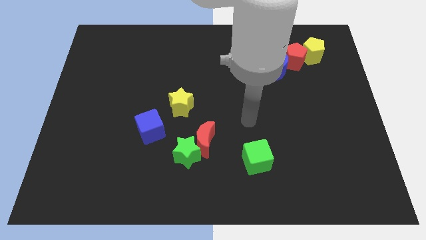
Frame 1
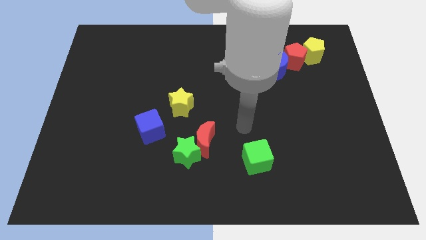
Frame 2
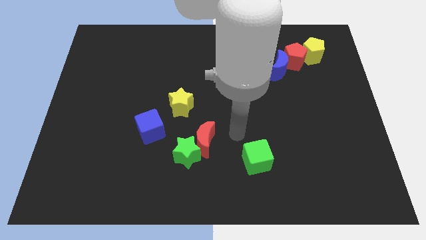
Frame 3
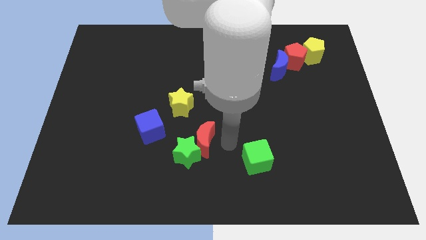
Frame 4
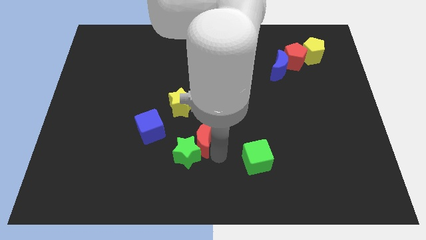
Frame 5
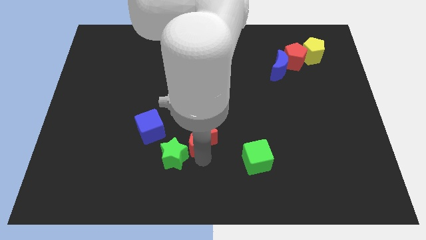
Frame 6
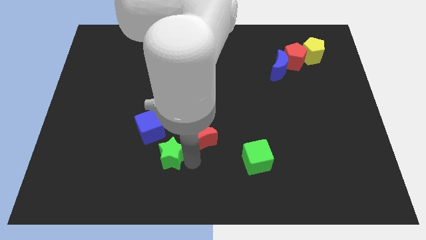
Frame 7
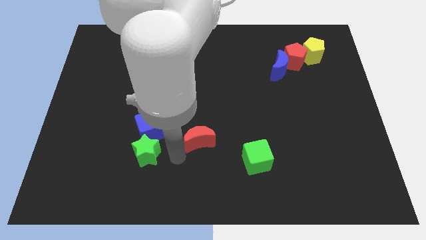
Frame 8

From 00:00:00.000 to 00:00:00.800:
separate the red moon from the green star

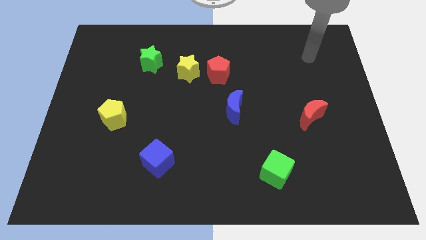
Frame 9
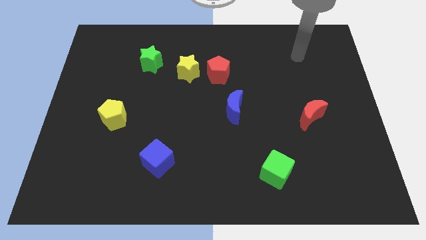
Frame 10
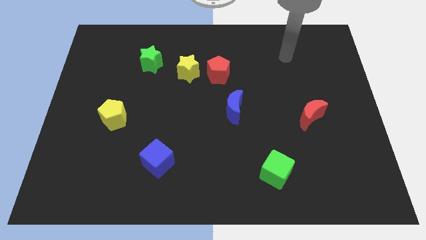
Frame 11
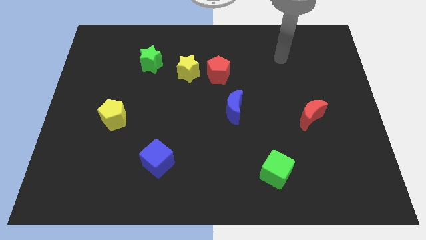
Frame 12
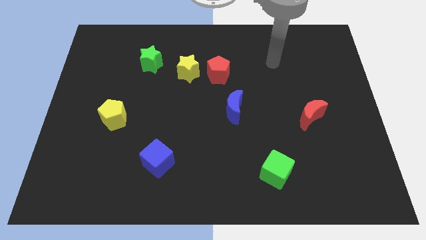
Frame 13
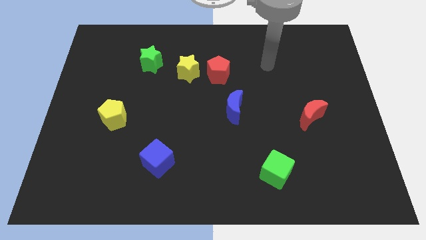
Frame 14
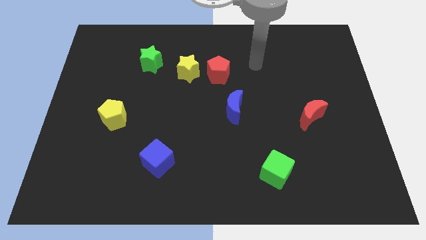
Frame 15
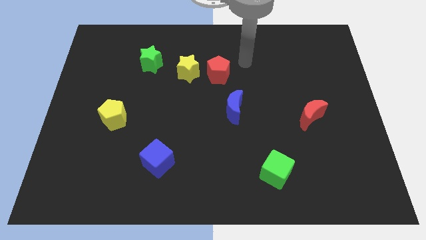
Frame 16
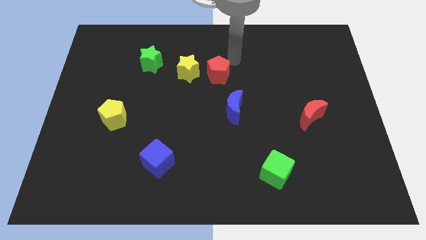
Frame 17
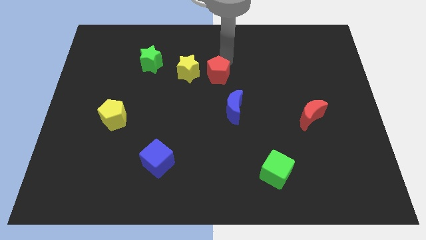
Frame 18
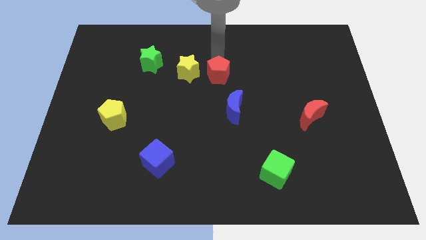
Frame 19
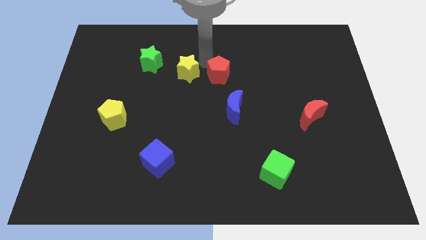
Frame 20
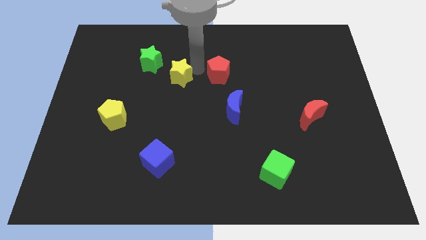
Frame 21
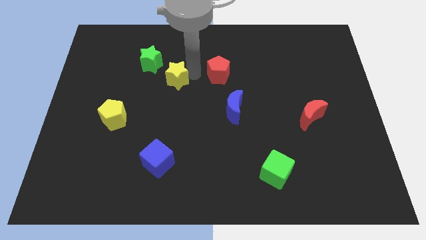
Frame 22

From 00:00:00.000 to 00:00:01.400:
pull the red pentagon apart from the yellow star

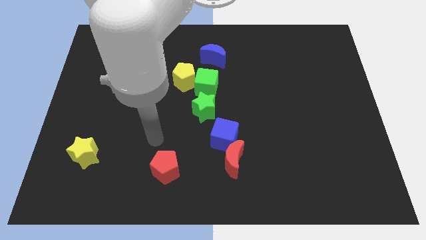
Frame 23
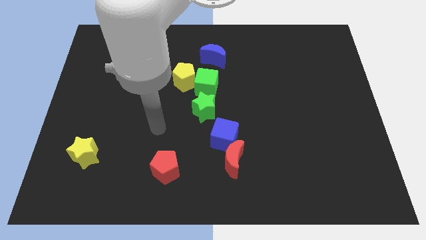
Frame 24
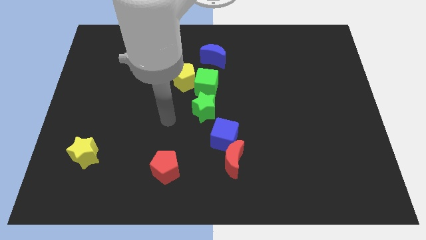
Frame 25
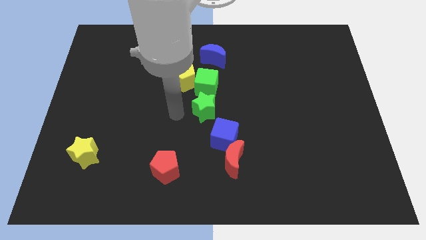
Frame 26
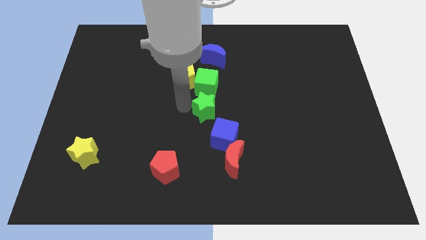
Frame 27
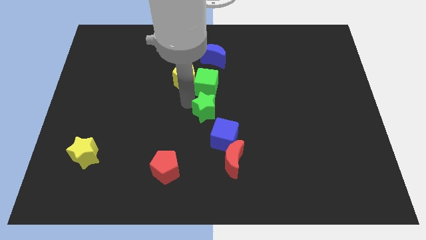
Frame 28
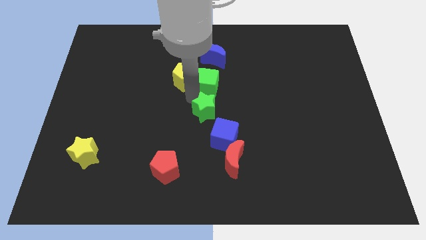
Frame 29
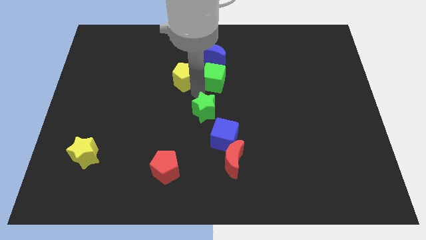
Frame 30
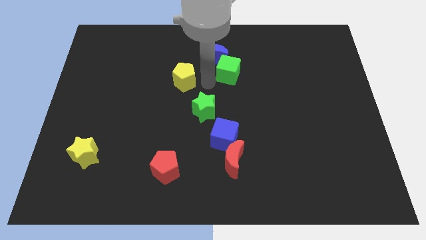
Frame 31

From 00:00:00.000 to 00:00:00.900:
pull the yellow pentagon apart from the green cube

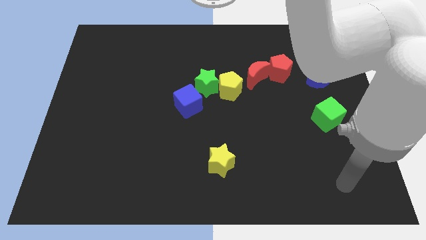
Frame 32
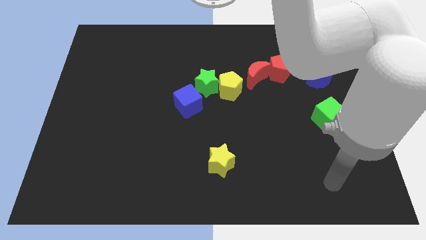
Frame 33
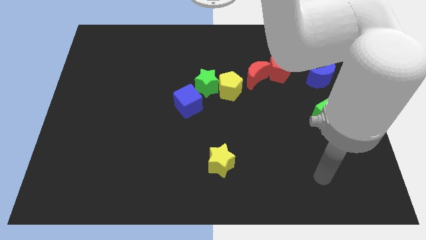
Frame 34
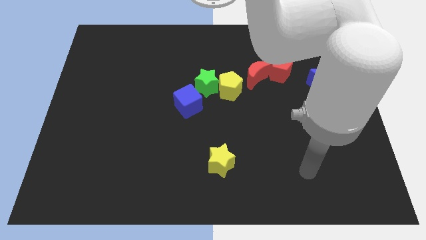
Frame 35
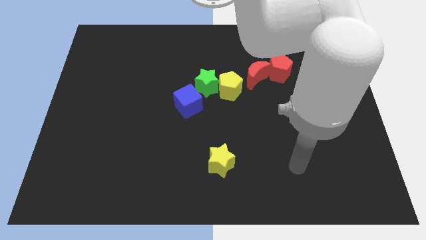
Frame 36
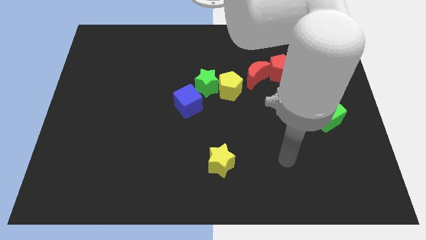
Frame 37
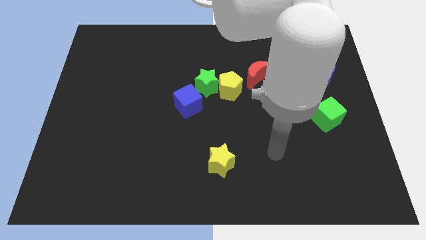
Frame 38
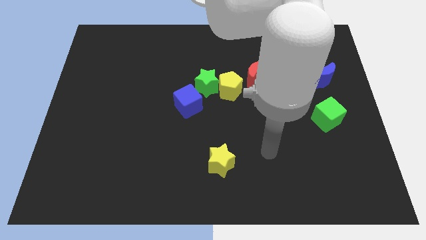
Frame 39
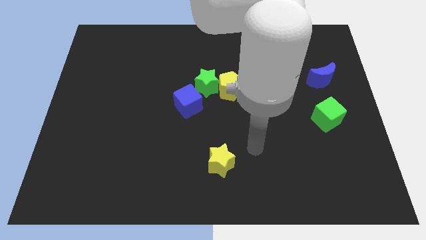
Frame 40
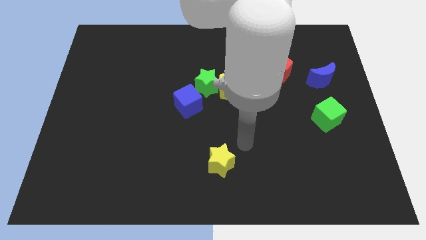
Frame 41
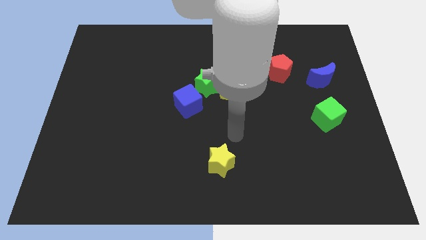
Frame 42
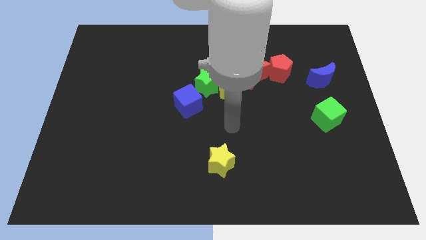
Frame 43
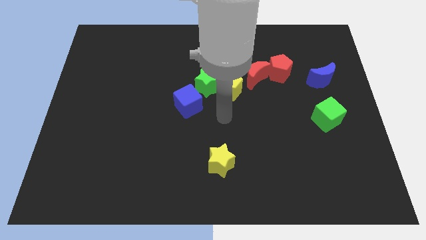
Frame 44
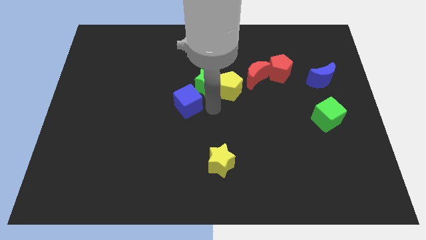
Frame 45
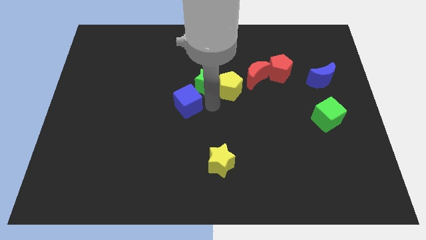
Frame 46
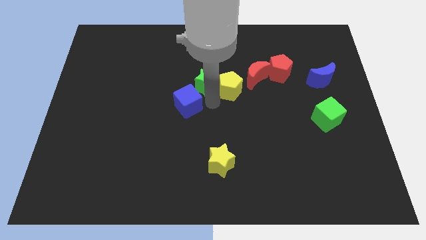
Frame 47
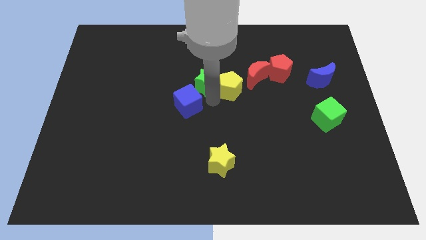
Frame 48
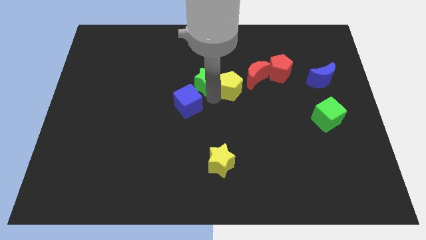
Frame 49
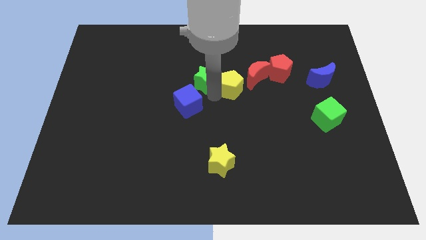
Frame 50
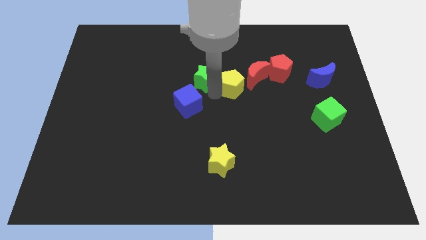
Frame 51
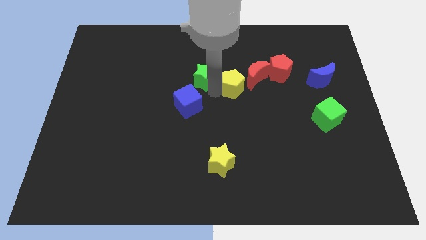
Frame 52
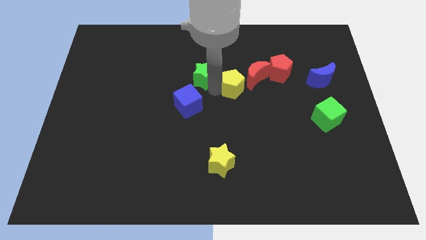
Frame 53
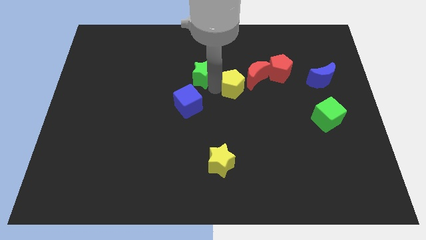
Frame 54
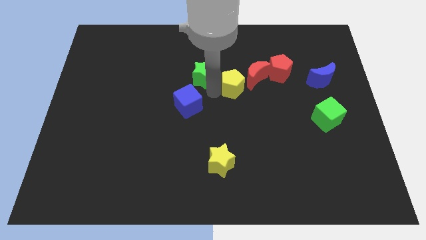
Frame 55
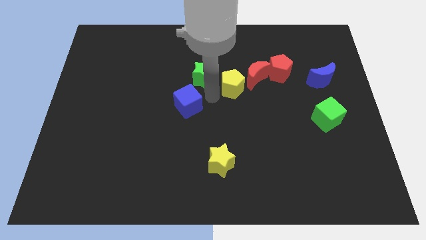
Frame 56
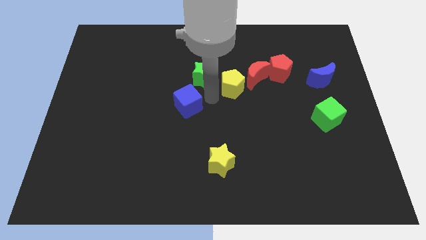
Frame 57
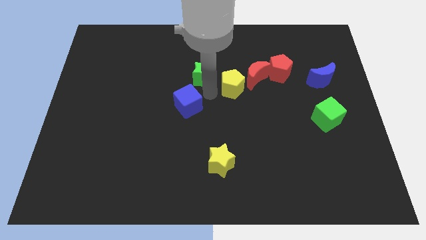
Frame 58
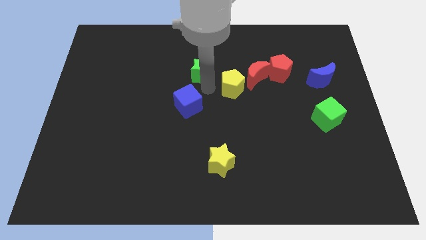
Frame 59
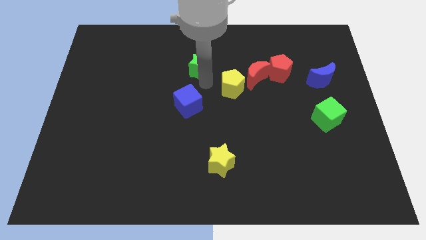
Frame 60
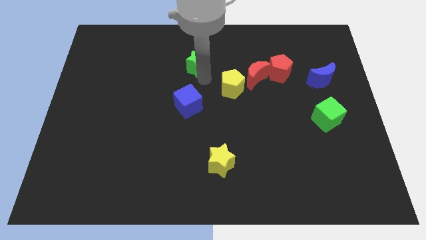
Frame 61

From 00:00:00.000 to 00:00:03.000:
move the green star away from the yellow pentagon and blue cube

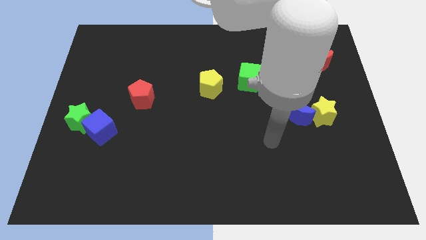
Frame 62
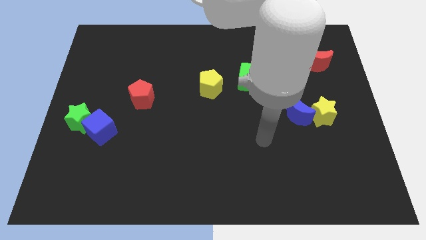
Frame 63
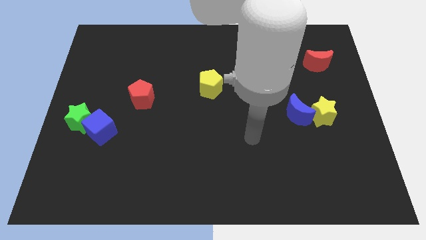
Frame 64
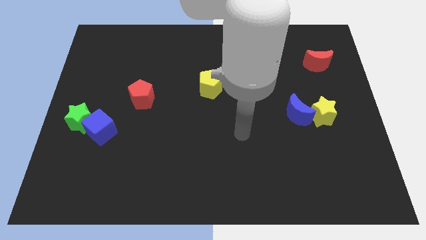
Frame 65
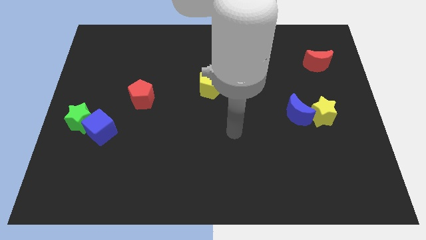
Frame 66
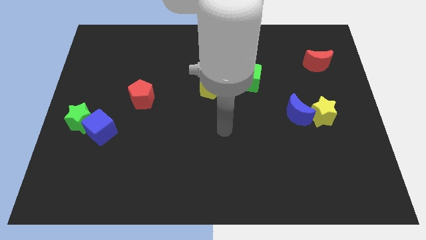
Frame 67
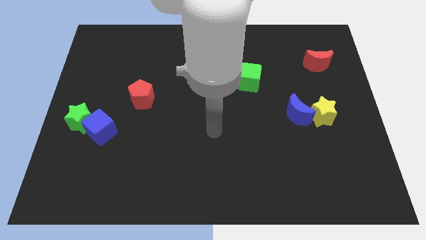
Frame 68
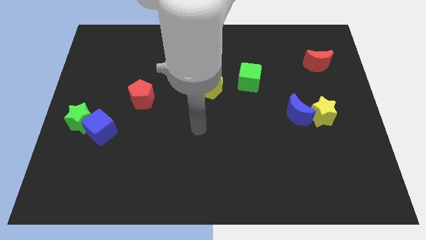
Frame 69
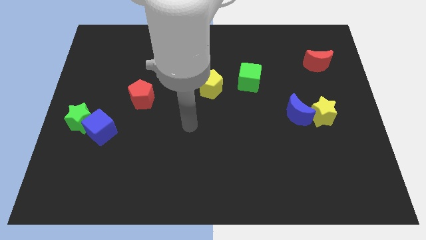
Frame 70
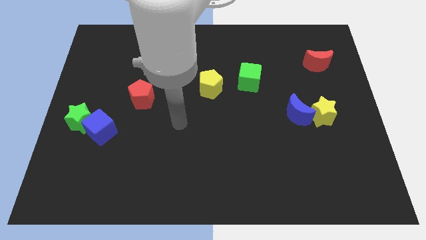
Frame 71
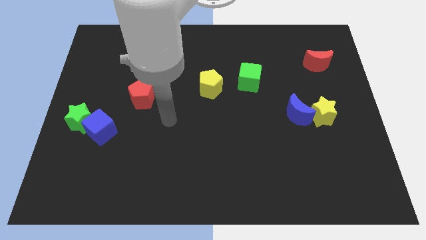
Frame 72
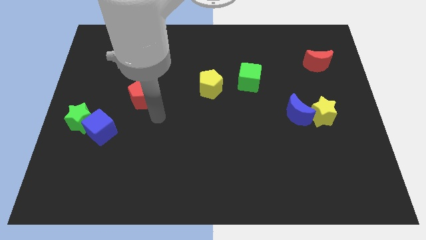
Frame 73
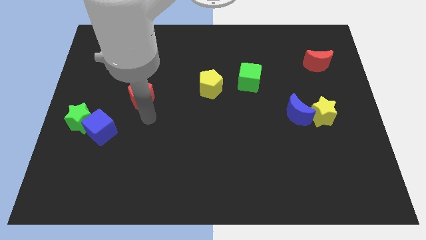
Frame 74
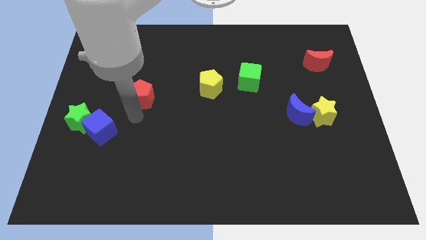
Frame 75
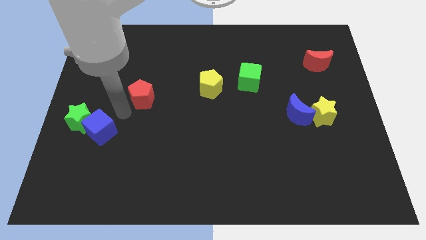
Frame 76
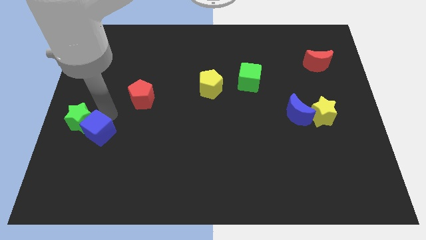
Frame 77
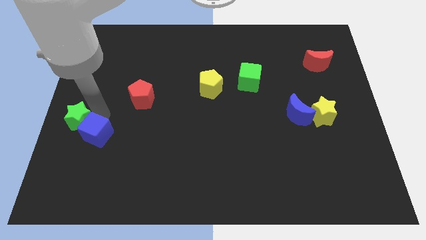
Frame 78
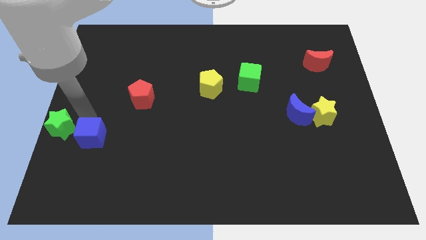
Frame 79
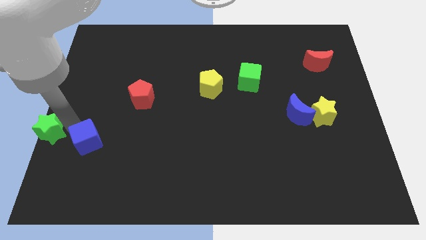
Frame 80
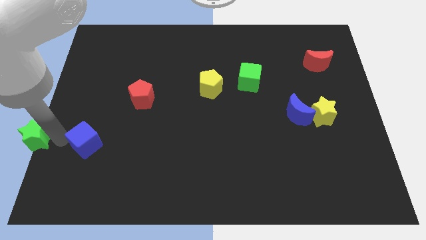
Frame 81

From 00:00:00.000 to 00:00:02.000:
separate the blue cube from the green star

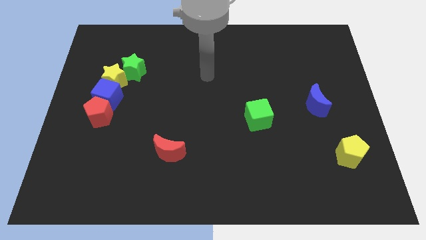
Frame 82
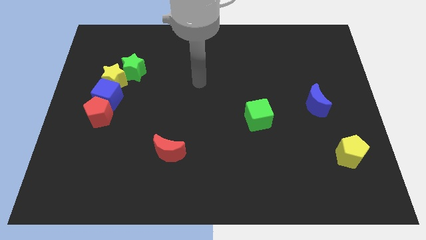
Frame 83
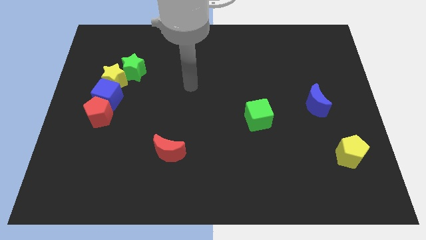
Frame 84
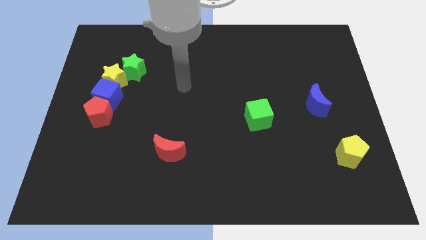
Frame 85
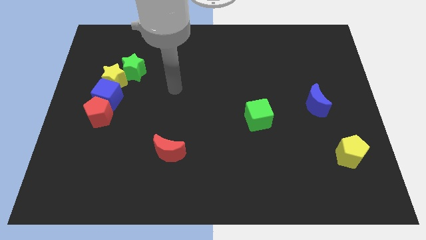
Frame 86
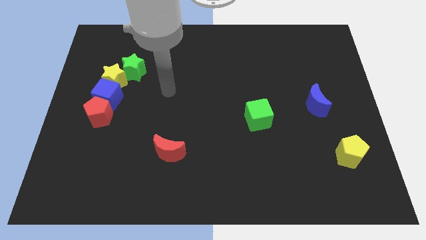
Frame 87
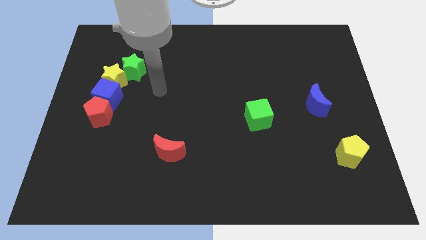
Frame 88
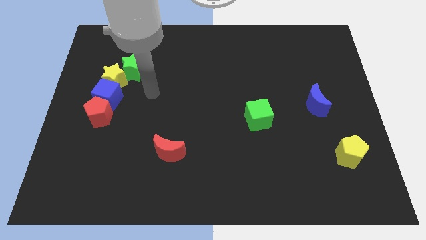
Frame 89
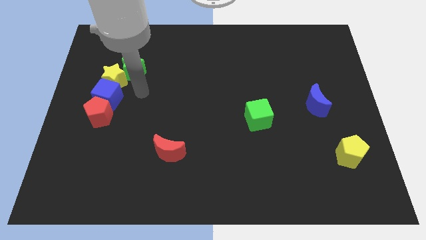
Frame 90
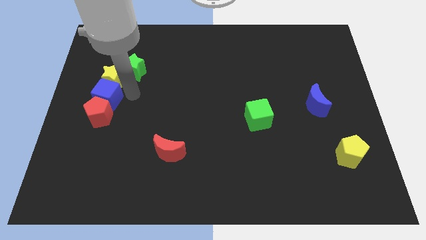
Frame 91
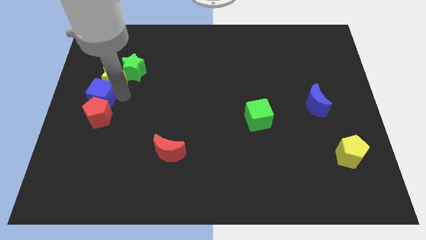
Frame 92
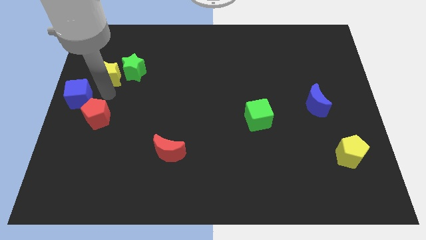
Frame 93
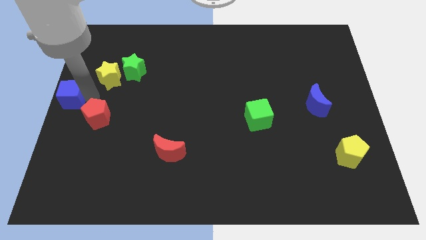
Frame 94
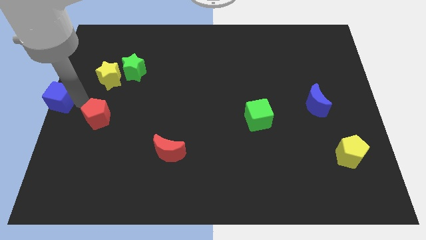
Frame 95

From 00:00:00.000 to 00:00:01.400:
pull the red pentagon apart from the blue cube

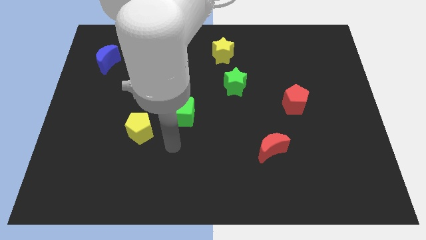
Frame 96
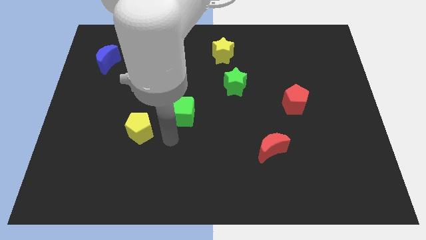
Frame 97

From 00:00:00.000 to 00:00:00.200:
move the green cube away from the yellow pentagon
